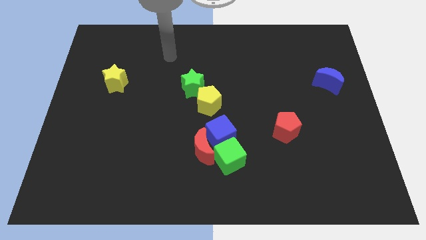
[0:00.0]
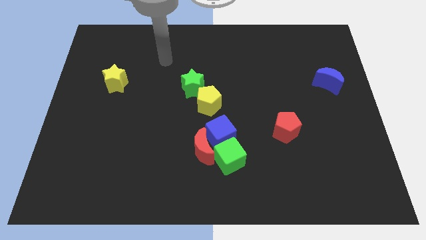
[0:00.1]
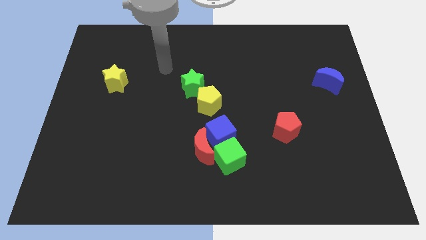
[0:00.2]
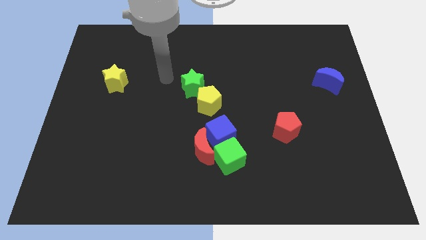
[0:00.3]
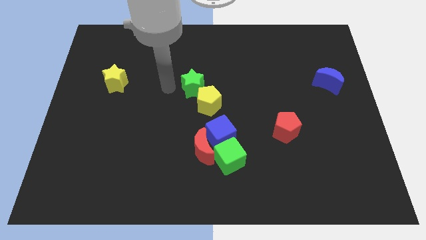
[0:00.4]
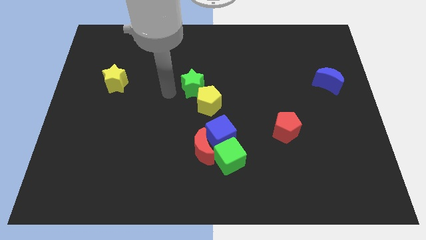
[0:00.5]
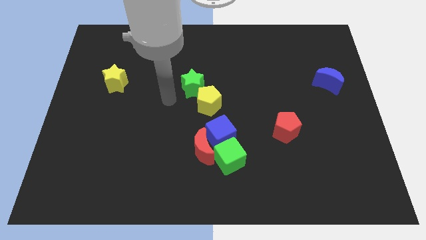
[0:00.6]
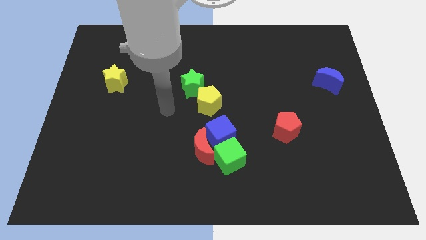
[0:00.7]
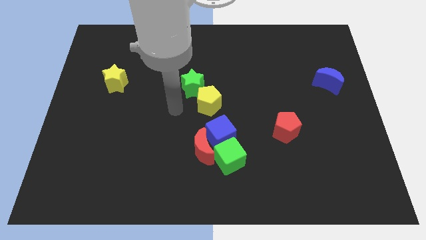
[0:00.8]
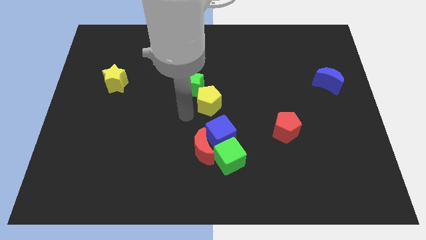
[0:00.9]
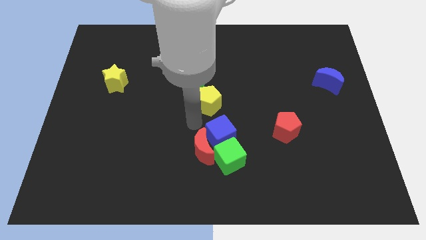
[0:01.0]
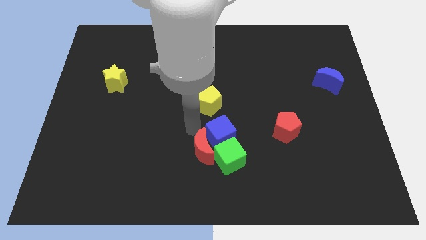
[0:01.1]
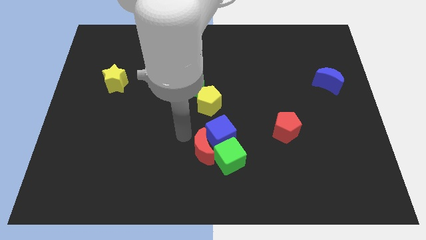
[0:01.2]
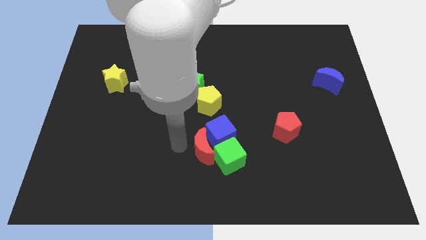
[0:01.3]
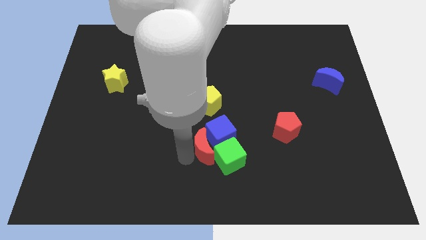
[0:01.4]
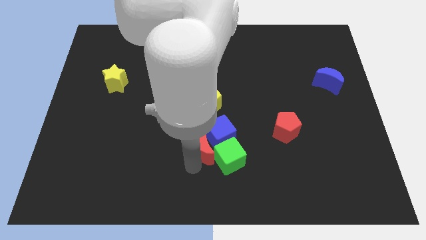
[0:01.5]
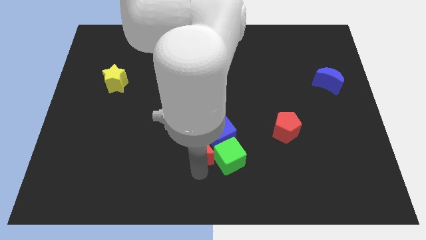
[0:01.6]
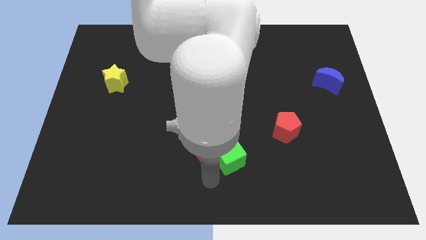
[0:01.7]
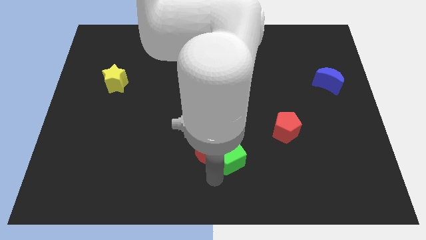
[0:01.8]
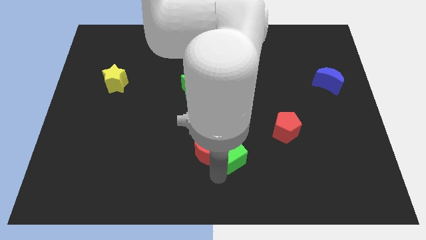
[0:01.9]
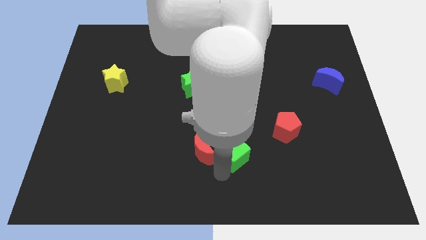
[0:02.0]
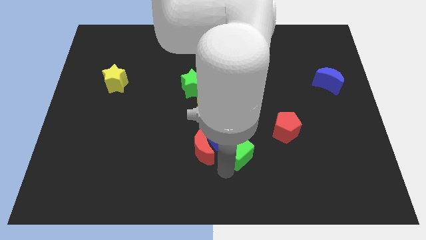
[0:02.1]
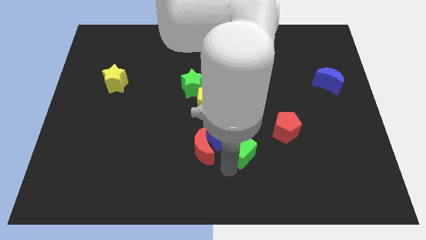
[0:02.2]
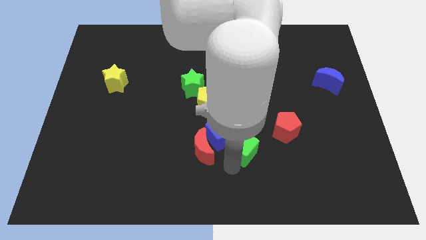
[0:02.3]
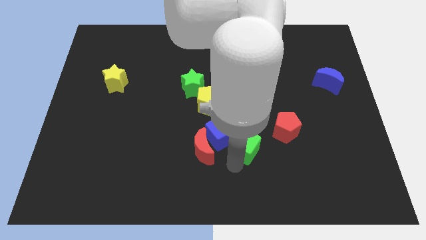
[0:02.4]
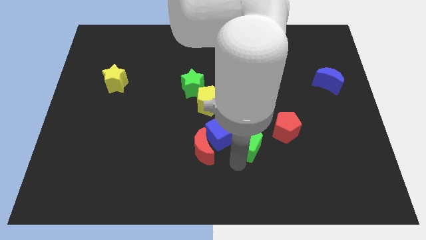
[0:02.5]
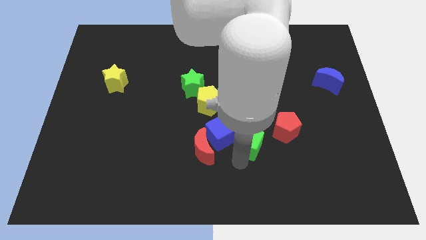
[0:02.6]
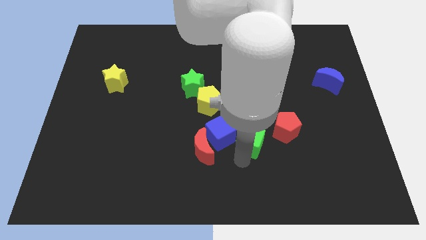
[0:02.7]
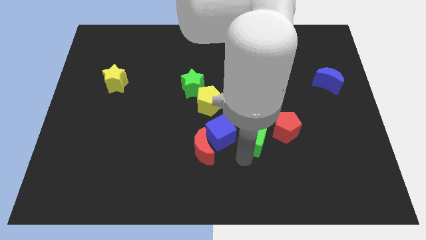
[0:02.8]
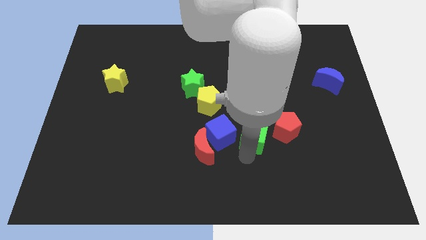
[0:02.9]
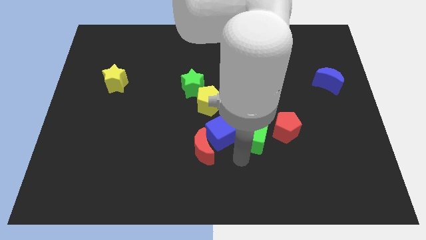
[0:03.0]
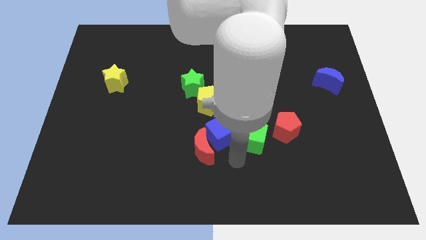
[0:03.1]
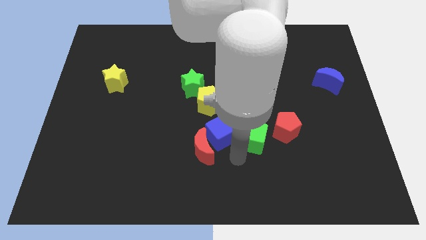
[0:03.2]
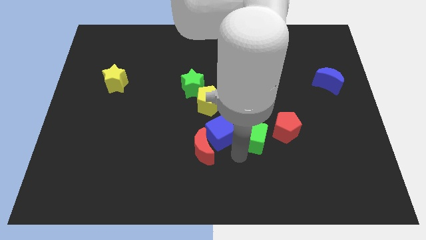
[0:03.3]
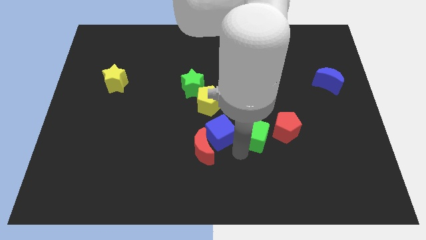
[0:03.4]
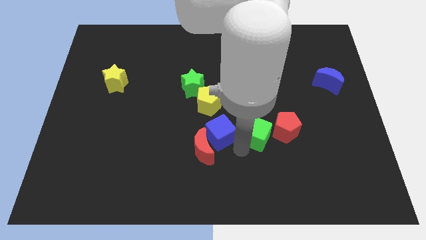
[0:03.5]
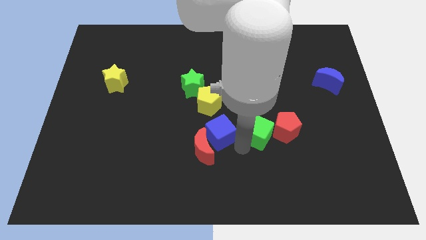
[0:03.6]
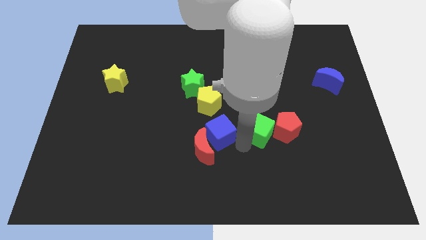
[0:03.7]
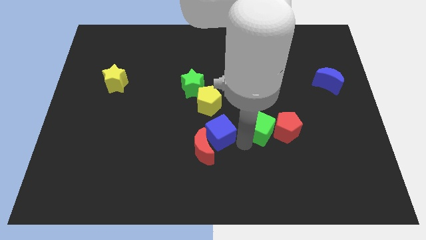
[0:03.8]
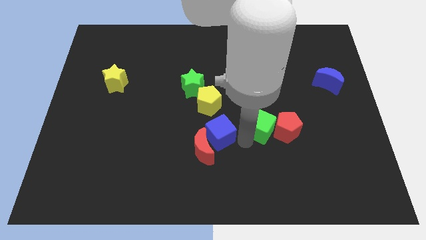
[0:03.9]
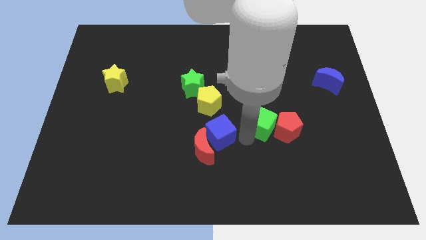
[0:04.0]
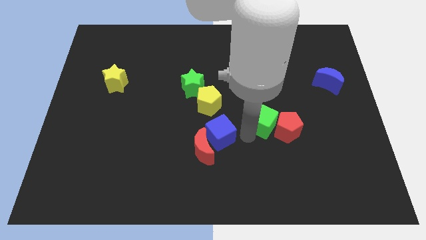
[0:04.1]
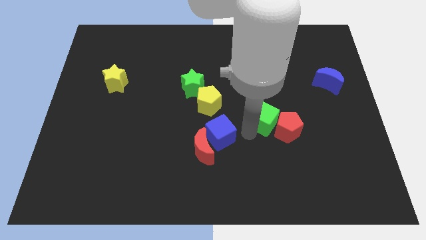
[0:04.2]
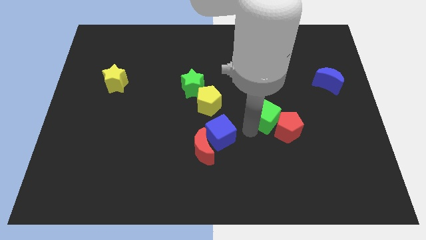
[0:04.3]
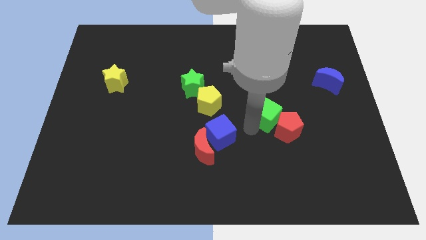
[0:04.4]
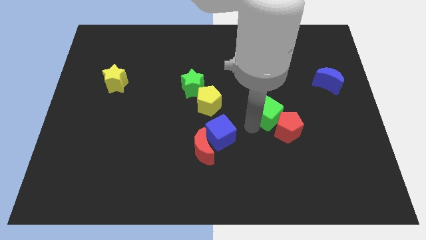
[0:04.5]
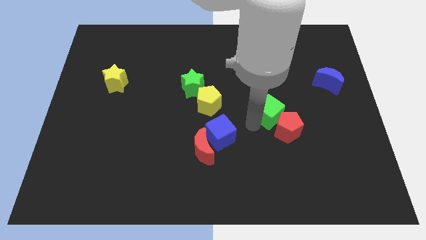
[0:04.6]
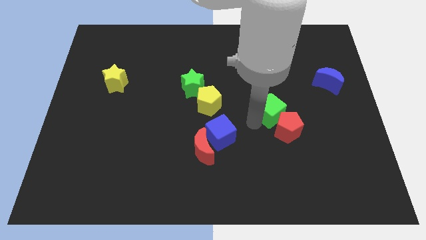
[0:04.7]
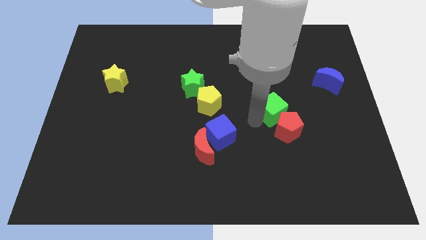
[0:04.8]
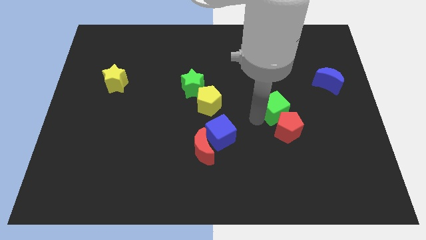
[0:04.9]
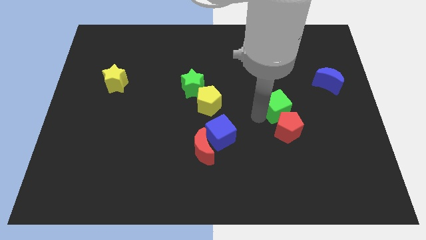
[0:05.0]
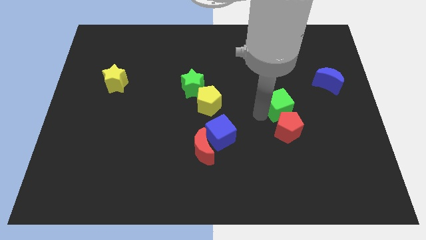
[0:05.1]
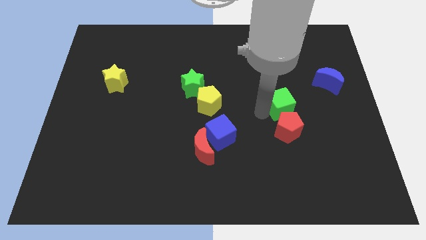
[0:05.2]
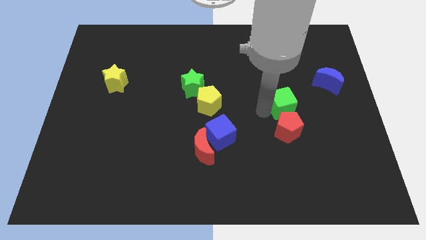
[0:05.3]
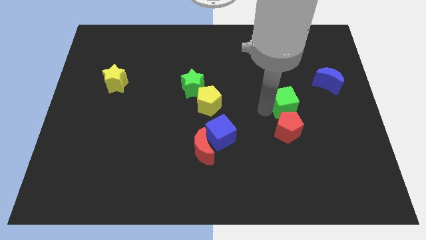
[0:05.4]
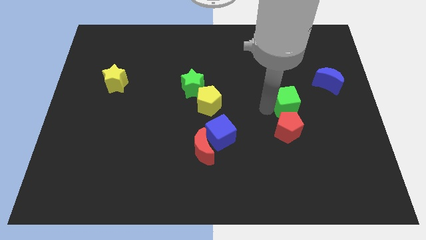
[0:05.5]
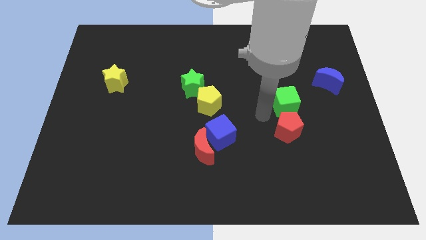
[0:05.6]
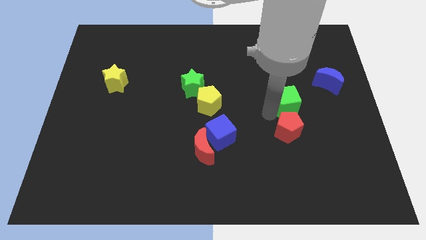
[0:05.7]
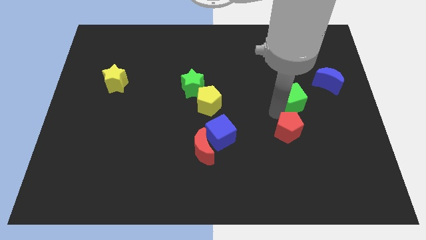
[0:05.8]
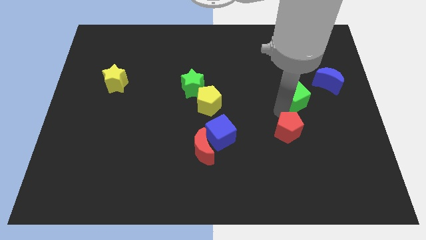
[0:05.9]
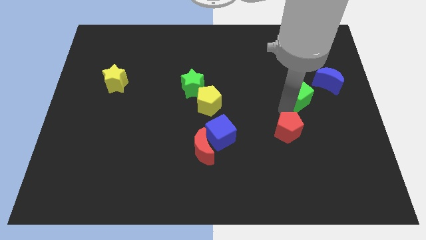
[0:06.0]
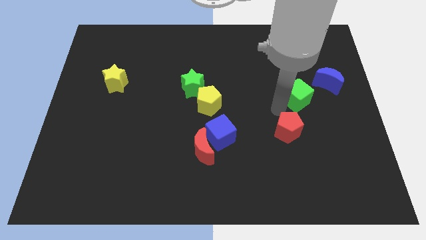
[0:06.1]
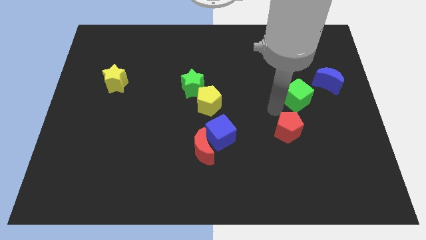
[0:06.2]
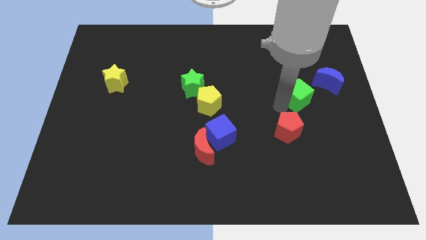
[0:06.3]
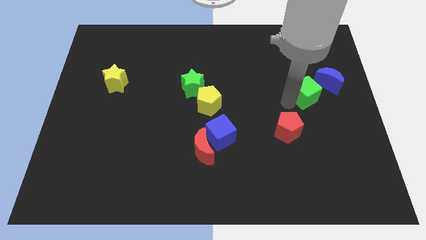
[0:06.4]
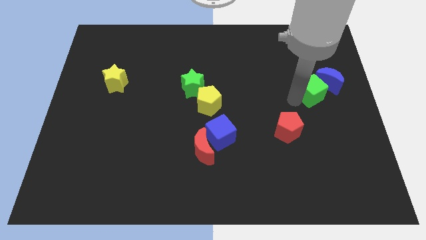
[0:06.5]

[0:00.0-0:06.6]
slide the green cube close to the blue moon
